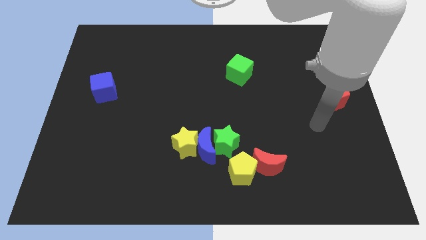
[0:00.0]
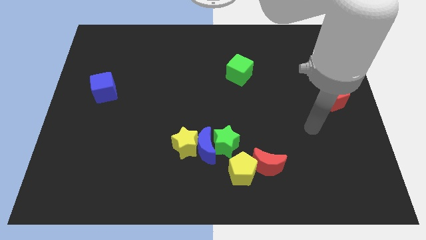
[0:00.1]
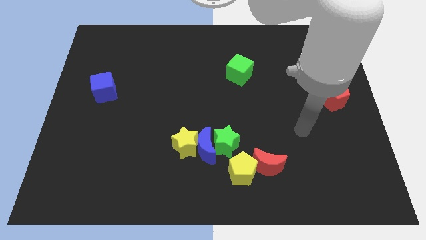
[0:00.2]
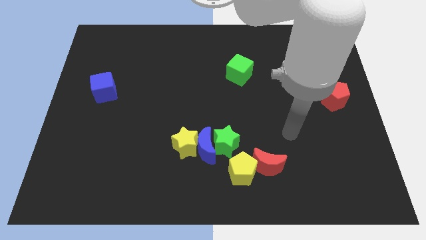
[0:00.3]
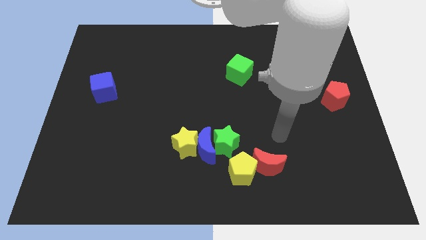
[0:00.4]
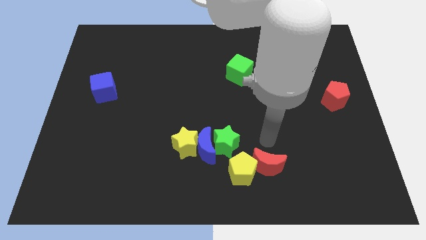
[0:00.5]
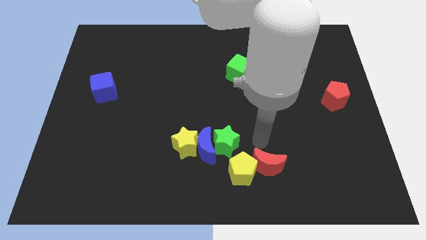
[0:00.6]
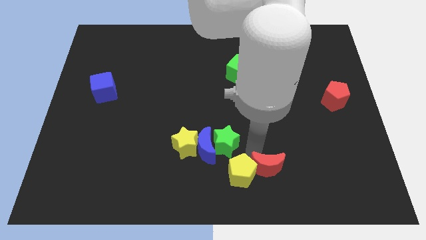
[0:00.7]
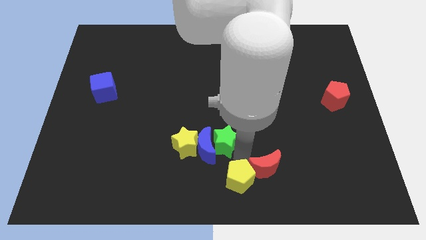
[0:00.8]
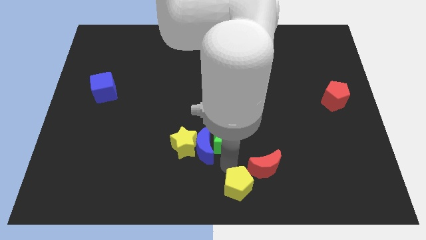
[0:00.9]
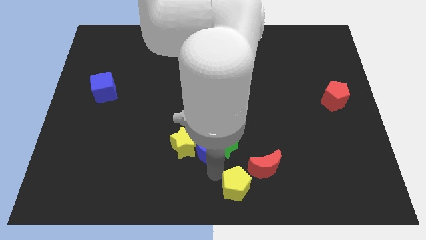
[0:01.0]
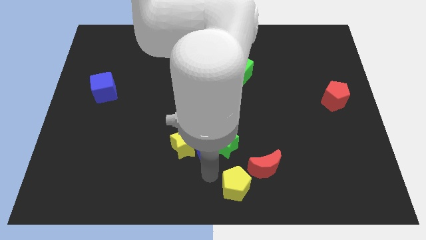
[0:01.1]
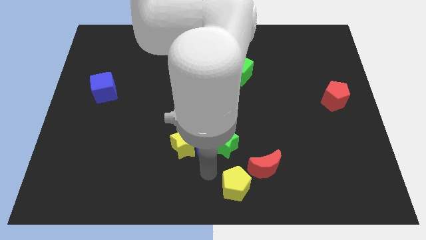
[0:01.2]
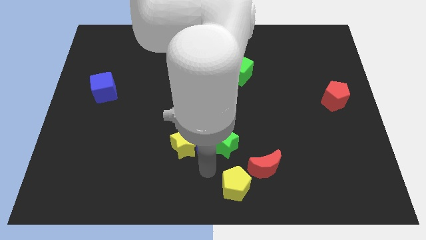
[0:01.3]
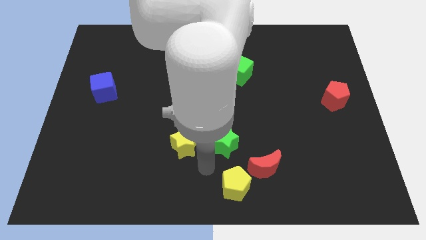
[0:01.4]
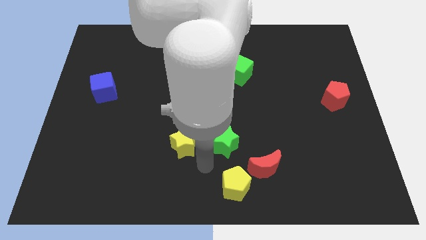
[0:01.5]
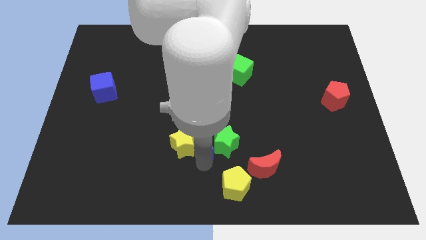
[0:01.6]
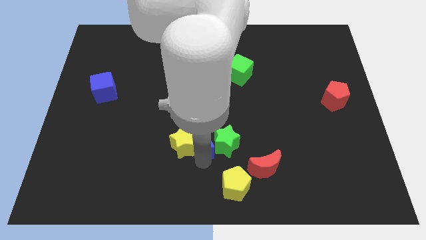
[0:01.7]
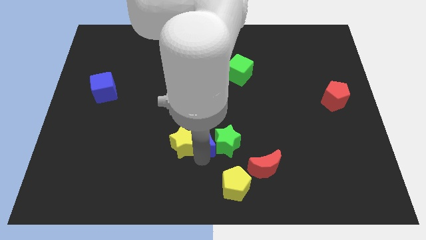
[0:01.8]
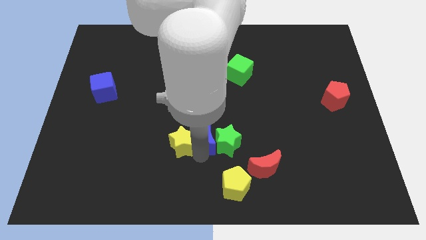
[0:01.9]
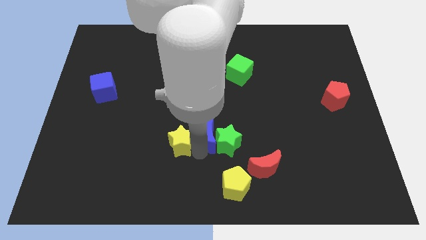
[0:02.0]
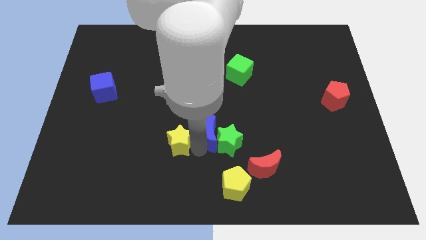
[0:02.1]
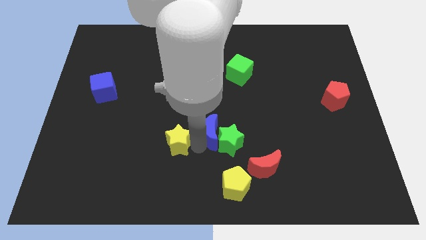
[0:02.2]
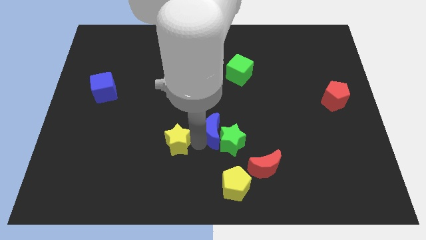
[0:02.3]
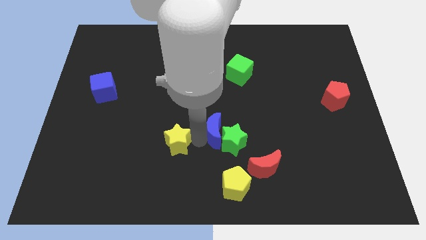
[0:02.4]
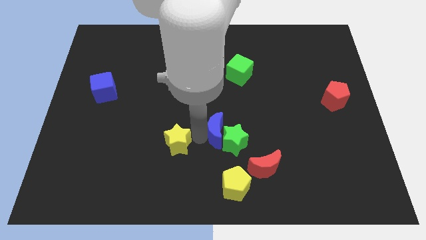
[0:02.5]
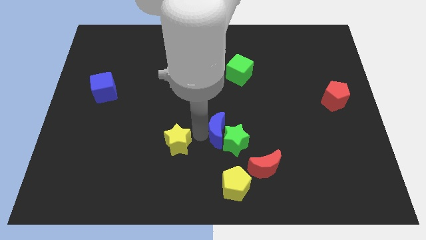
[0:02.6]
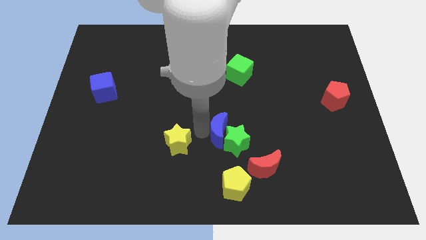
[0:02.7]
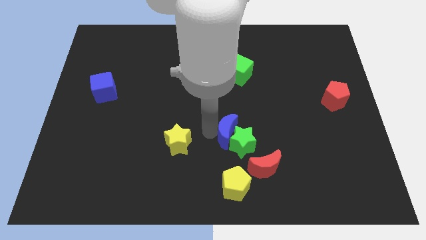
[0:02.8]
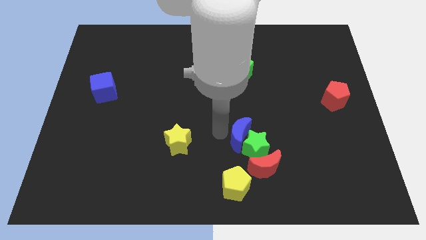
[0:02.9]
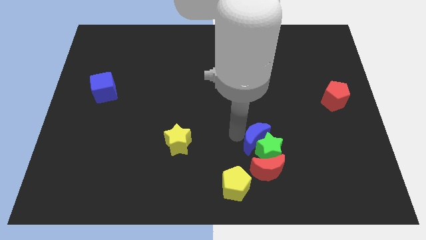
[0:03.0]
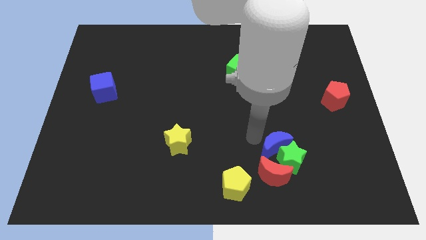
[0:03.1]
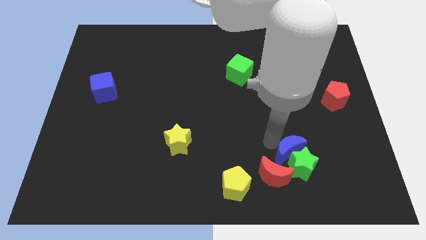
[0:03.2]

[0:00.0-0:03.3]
move the blue moon away from the clump

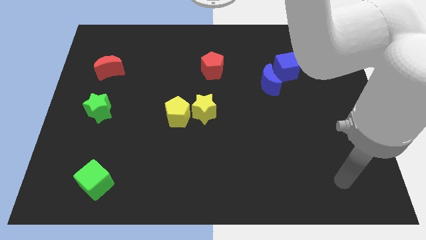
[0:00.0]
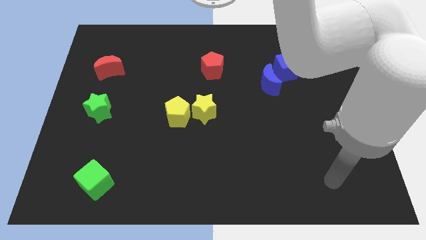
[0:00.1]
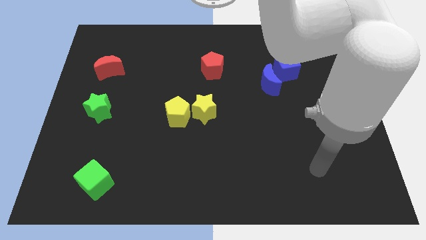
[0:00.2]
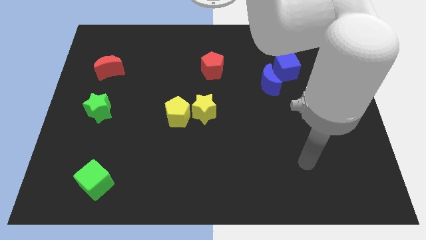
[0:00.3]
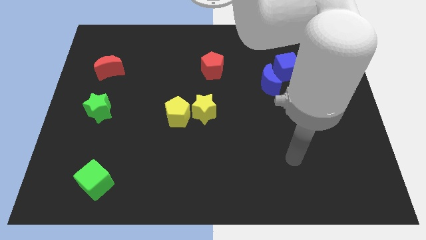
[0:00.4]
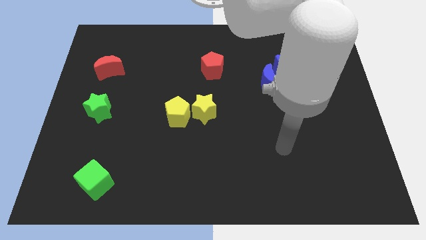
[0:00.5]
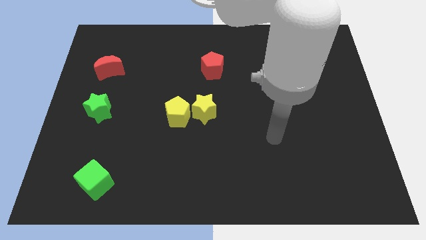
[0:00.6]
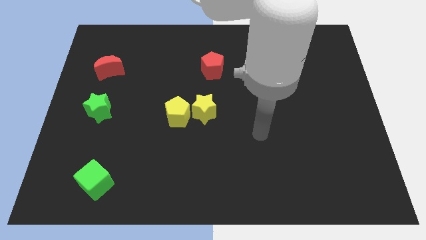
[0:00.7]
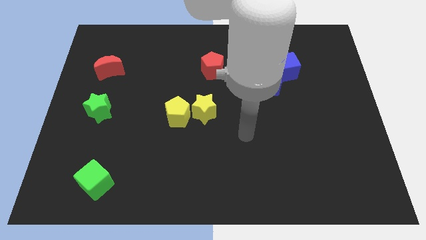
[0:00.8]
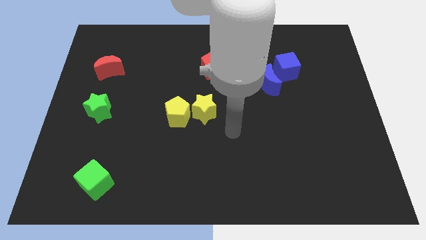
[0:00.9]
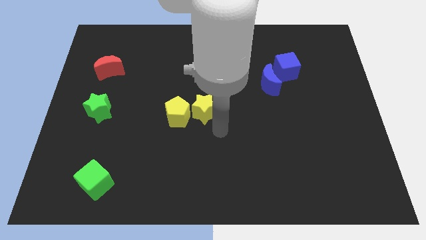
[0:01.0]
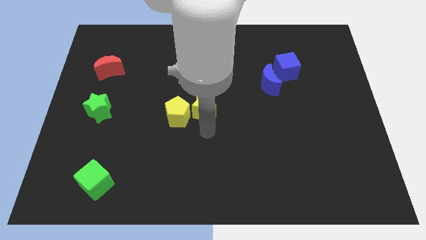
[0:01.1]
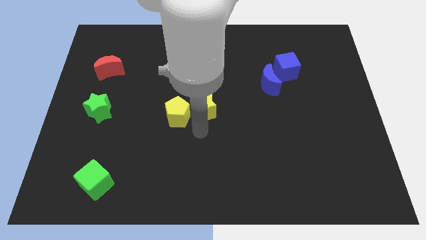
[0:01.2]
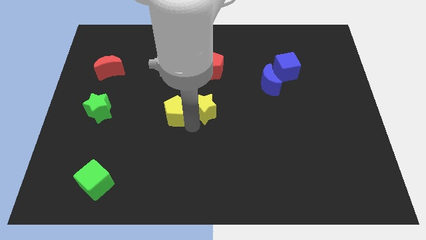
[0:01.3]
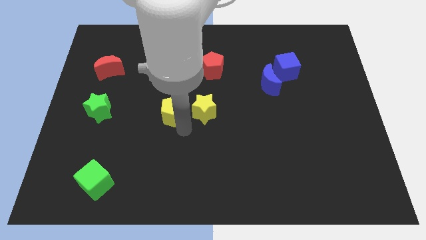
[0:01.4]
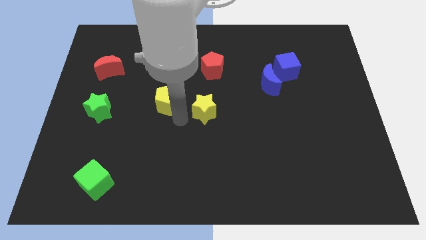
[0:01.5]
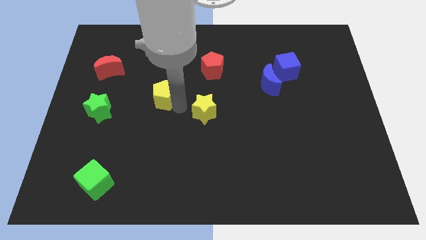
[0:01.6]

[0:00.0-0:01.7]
move the yellow star away from the yellow pentagon

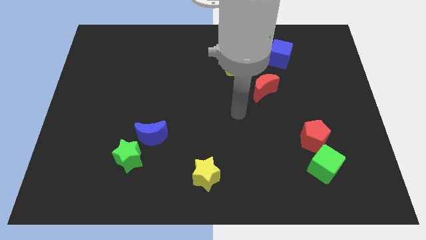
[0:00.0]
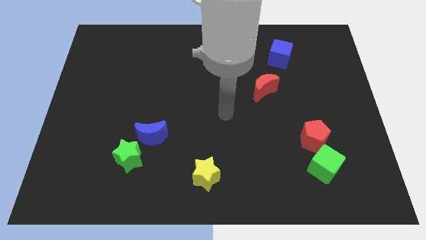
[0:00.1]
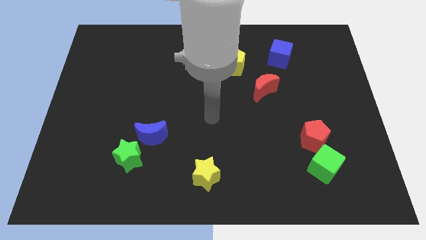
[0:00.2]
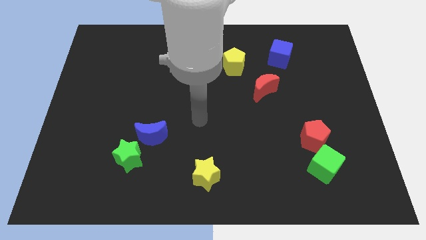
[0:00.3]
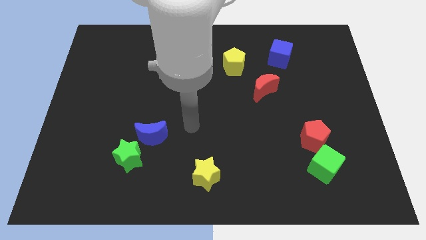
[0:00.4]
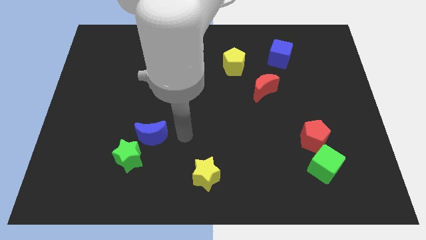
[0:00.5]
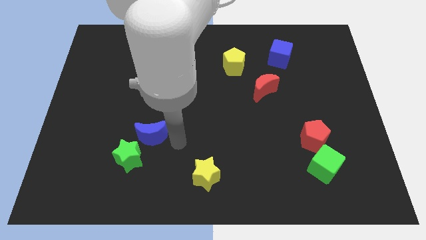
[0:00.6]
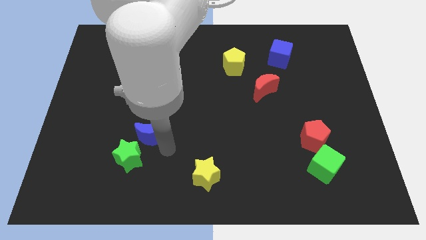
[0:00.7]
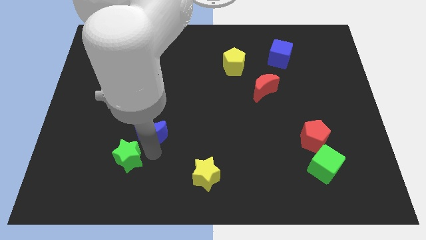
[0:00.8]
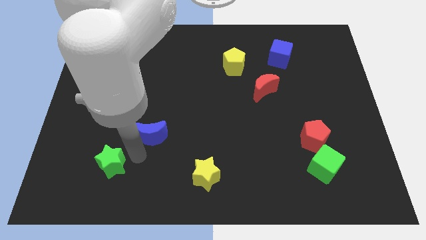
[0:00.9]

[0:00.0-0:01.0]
pull the blue moon apart from the green star

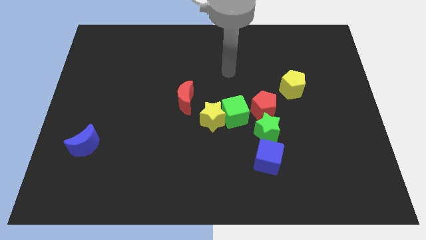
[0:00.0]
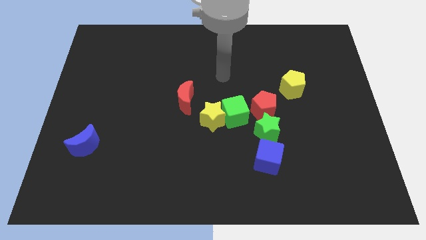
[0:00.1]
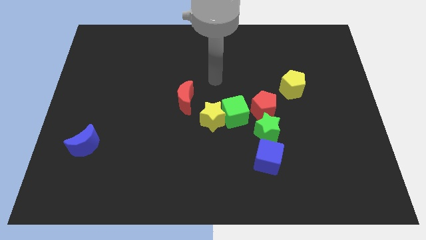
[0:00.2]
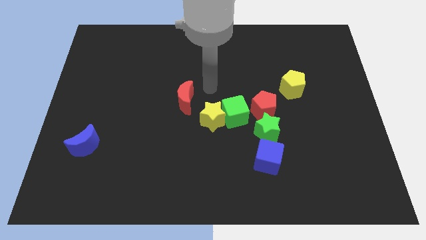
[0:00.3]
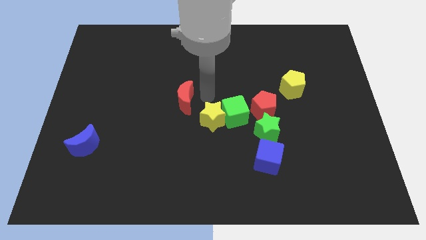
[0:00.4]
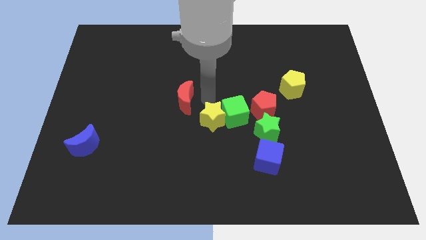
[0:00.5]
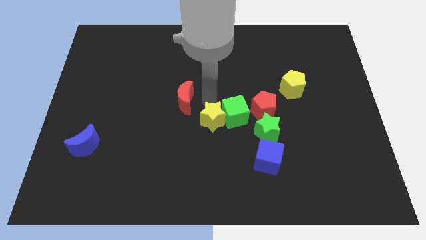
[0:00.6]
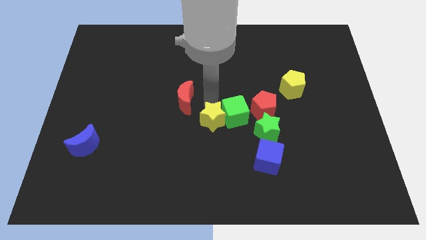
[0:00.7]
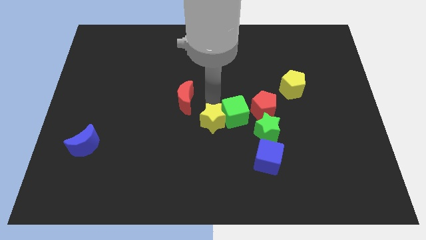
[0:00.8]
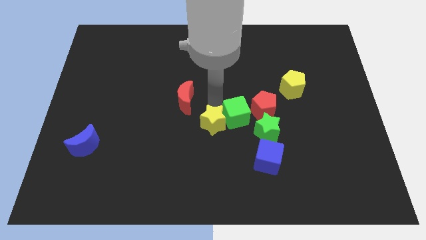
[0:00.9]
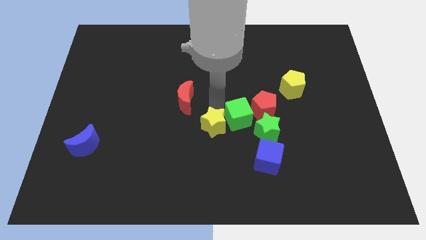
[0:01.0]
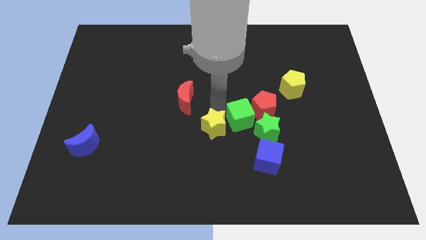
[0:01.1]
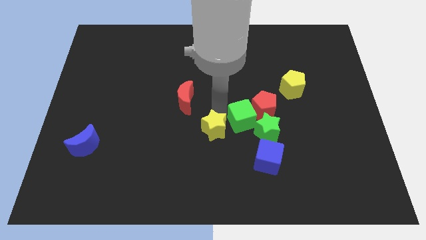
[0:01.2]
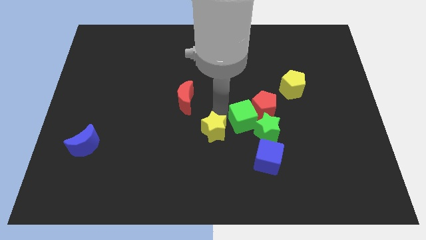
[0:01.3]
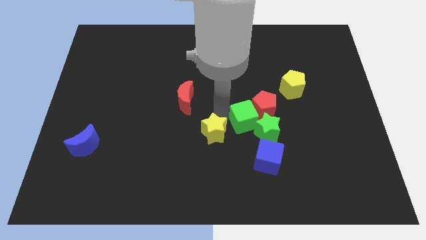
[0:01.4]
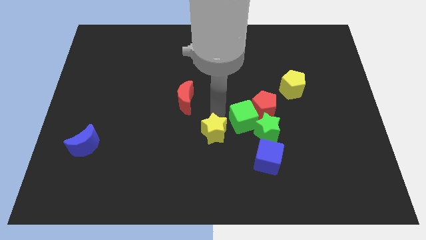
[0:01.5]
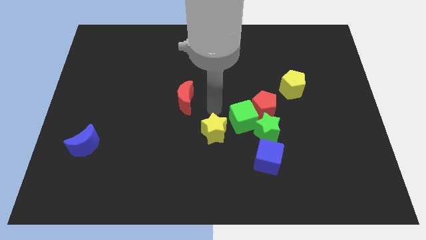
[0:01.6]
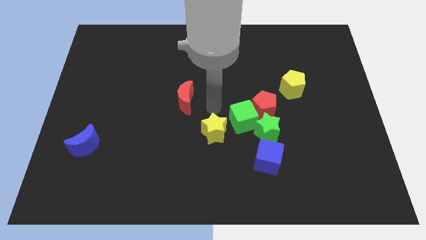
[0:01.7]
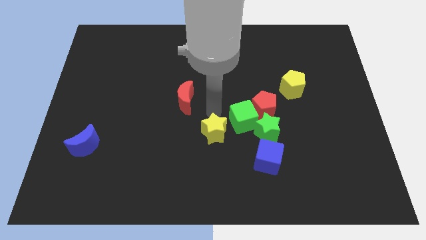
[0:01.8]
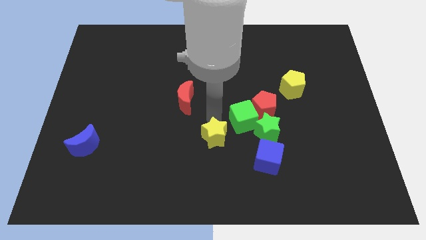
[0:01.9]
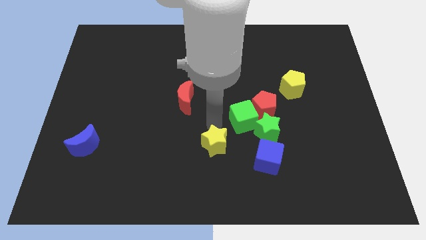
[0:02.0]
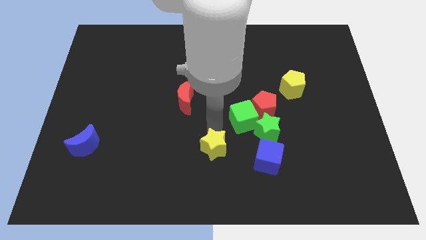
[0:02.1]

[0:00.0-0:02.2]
separate the yellow star from the green cube and red moon

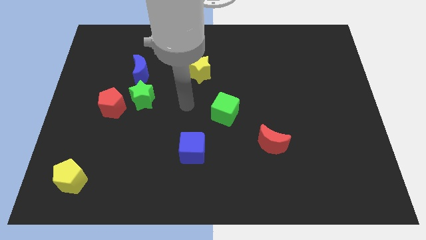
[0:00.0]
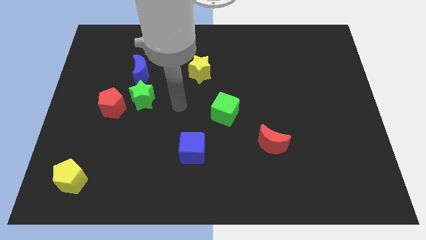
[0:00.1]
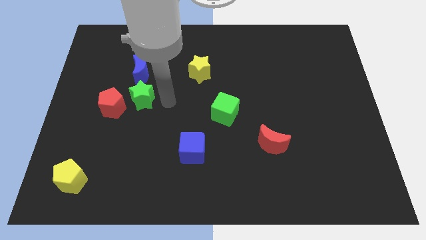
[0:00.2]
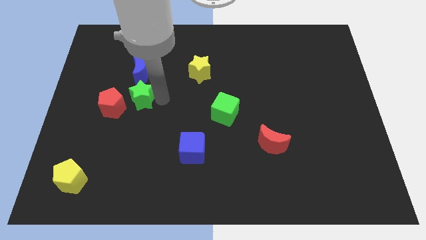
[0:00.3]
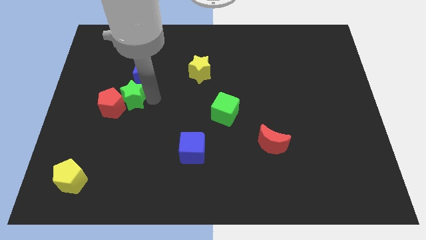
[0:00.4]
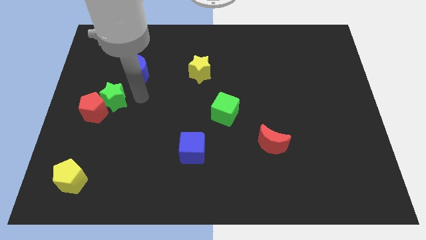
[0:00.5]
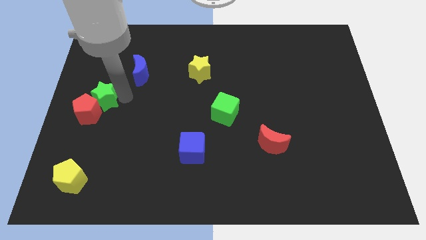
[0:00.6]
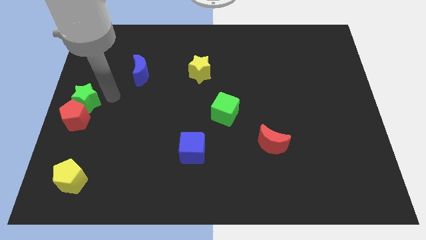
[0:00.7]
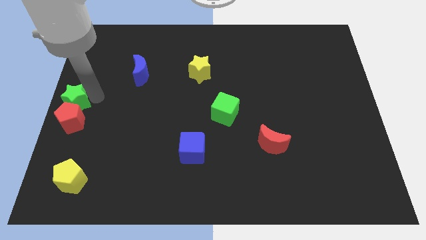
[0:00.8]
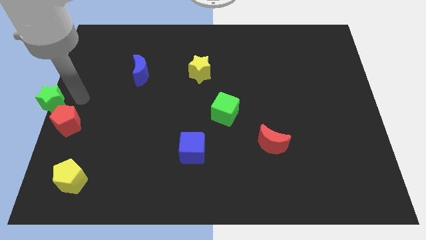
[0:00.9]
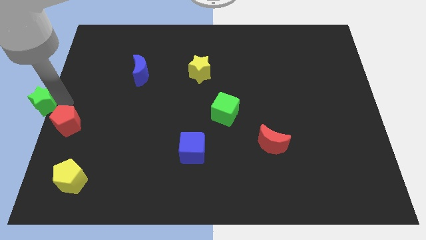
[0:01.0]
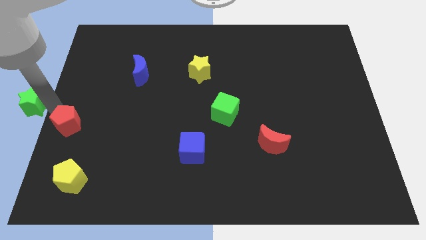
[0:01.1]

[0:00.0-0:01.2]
separate the red pentagon from the green star
